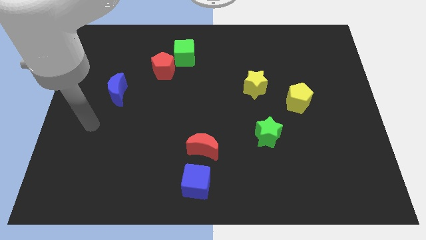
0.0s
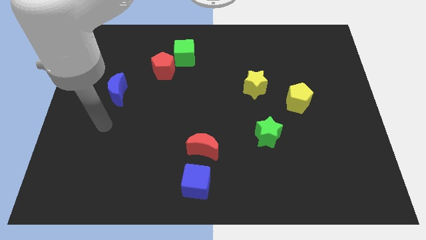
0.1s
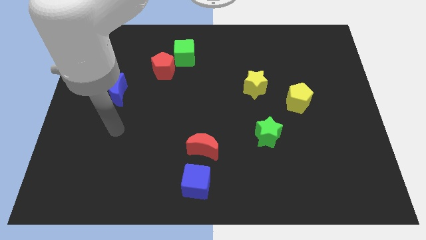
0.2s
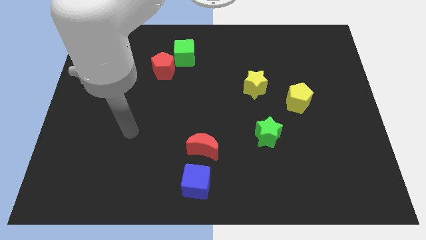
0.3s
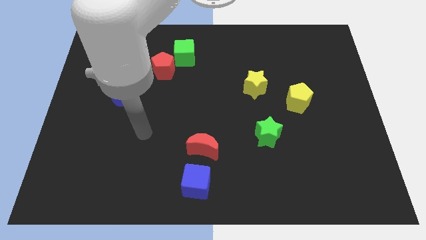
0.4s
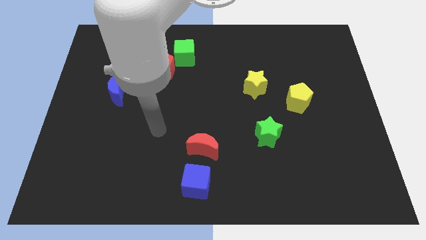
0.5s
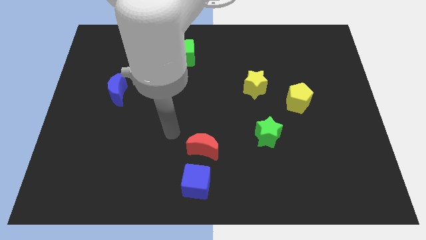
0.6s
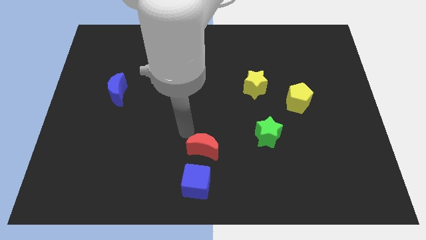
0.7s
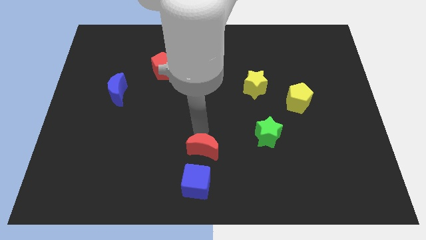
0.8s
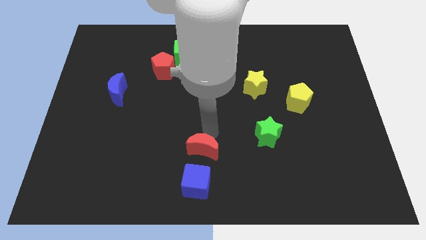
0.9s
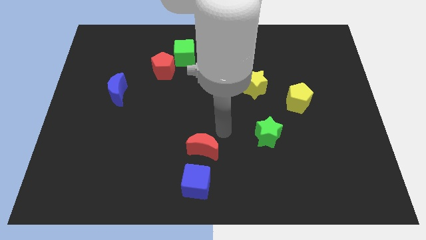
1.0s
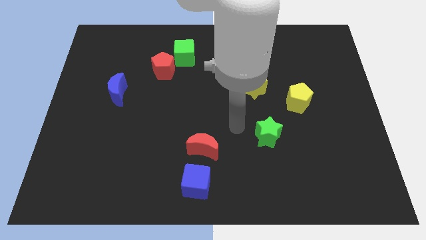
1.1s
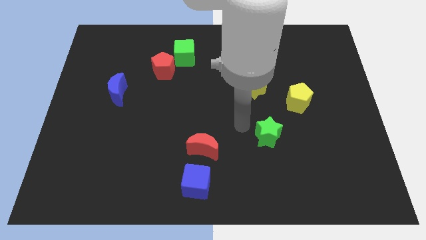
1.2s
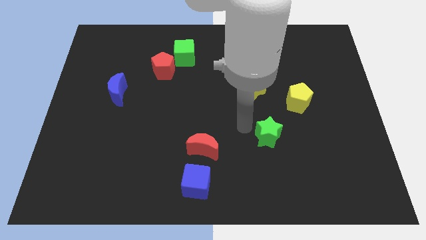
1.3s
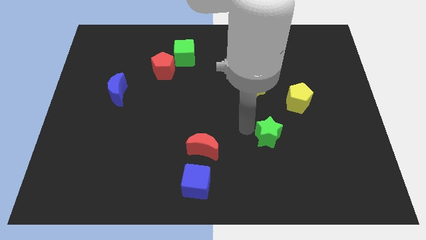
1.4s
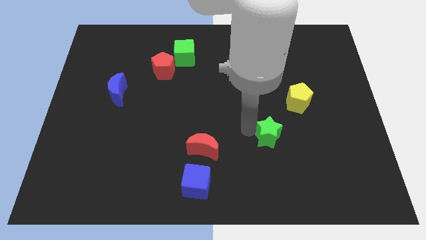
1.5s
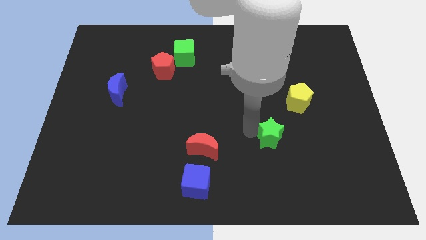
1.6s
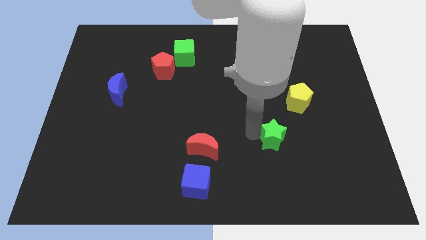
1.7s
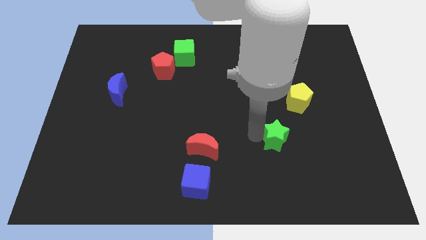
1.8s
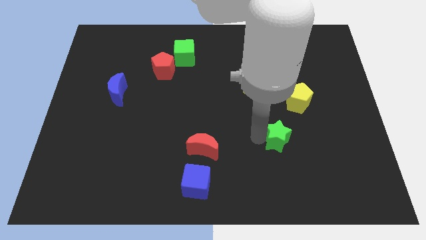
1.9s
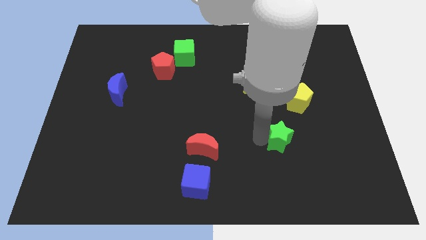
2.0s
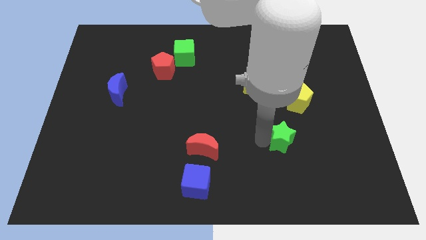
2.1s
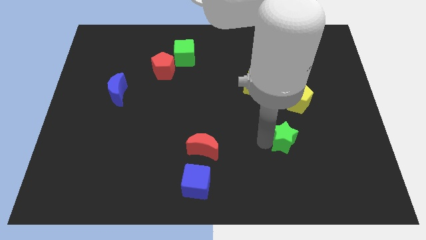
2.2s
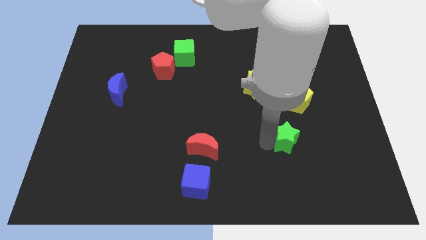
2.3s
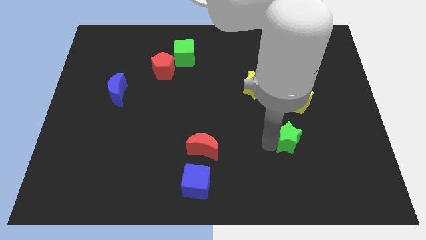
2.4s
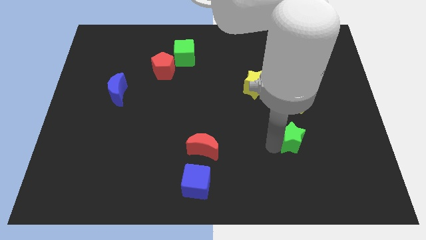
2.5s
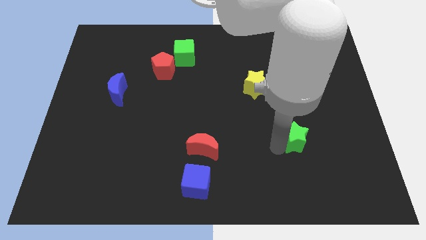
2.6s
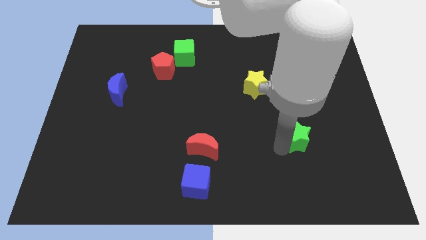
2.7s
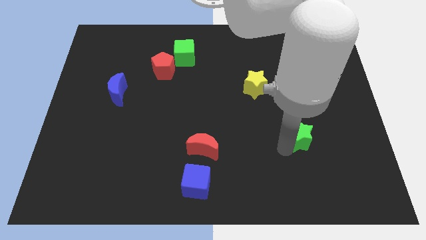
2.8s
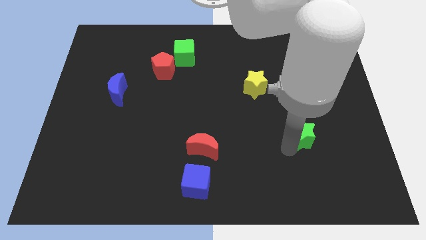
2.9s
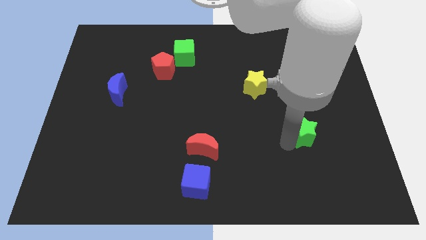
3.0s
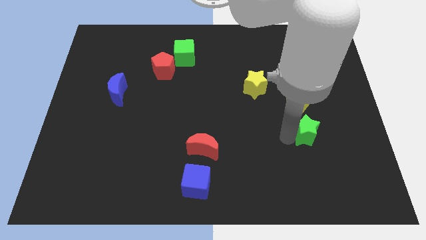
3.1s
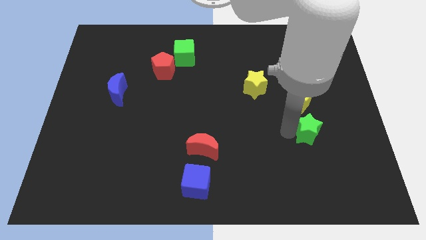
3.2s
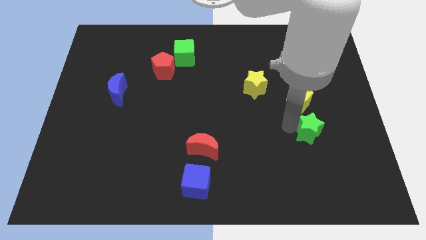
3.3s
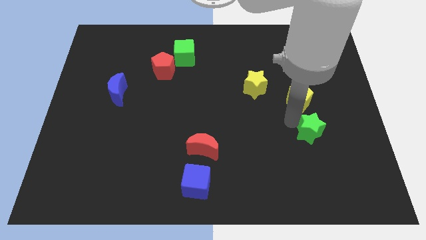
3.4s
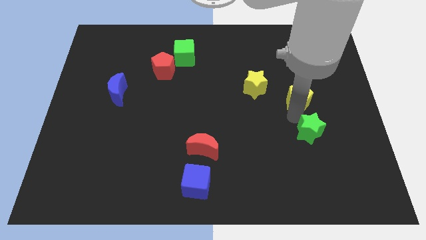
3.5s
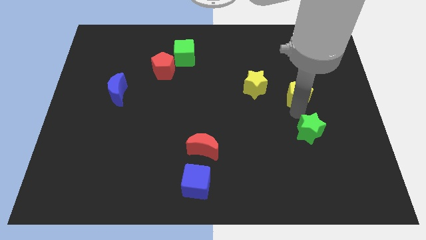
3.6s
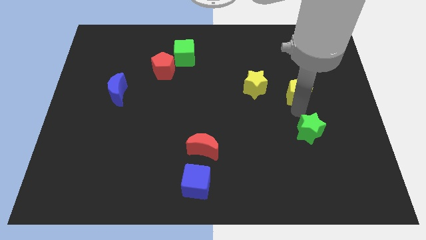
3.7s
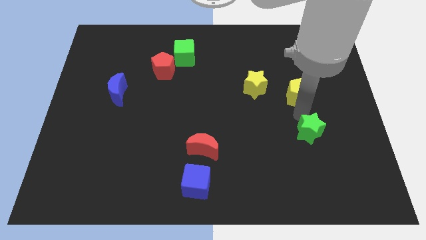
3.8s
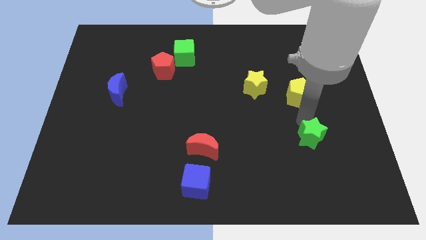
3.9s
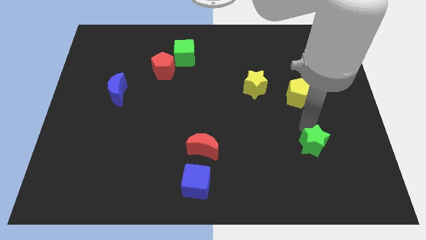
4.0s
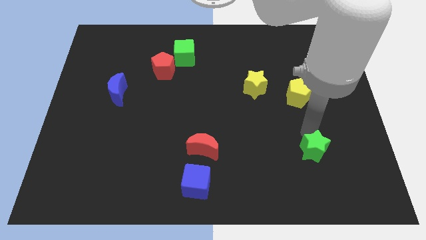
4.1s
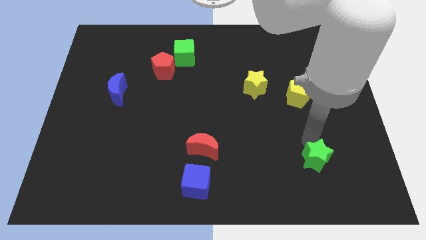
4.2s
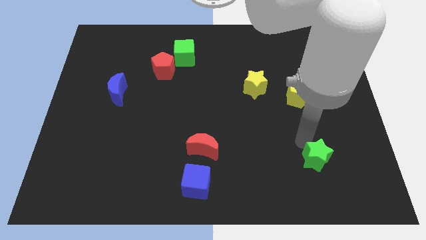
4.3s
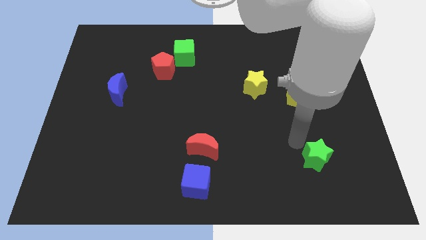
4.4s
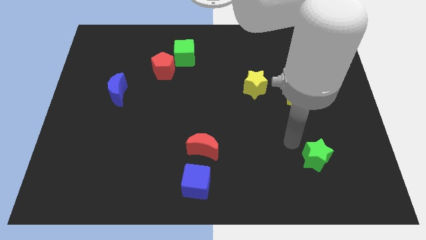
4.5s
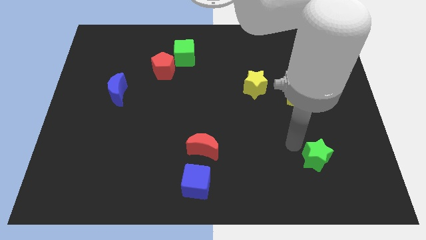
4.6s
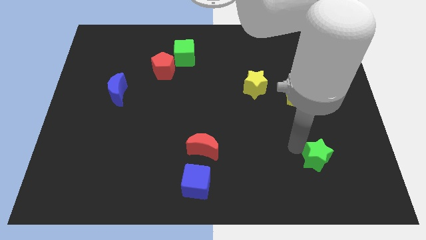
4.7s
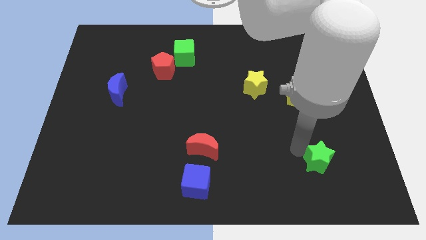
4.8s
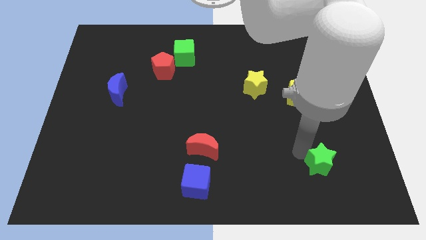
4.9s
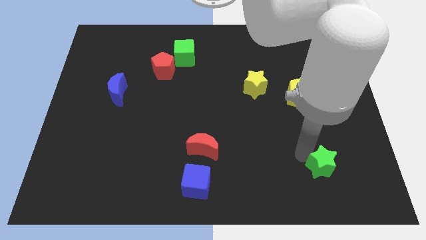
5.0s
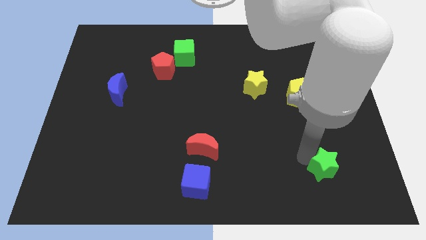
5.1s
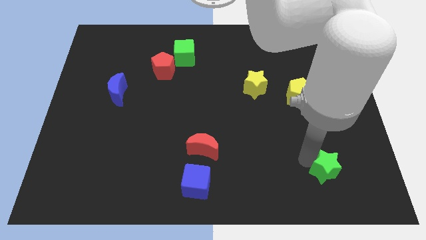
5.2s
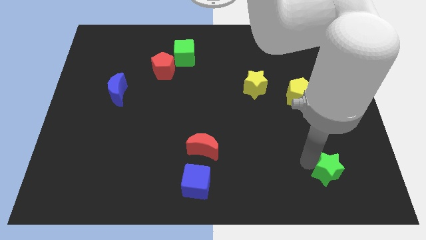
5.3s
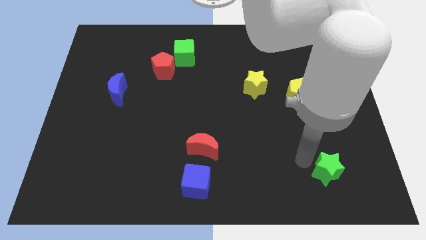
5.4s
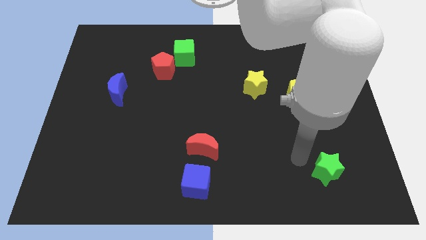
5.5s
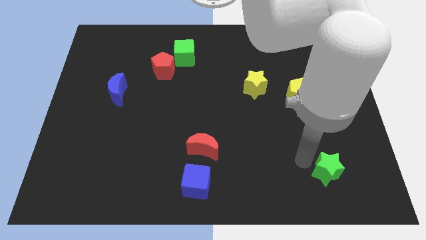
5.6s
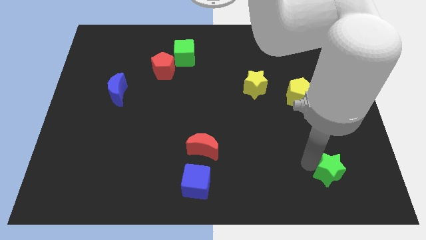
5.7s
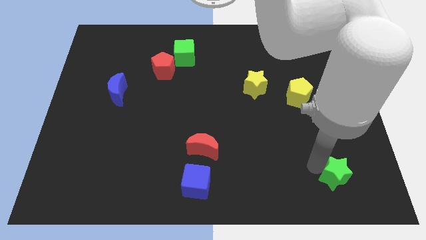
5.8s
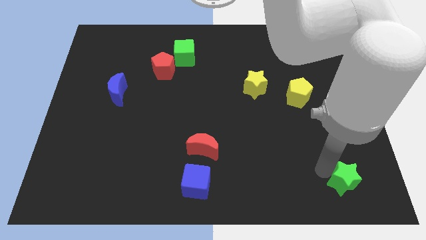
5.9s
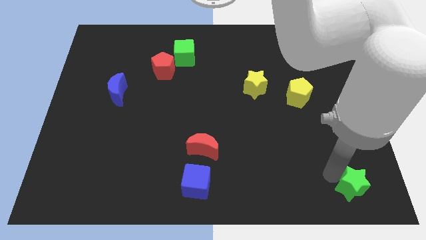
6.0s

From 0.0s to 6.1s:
move the green star to the lower right corner
